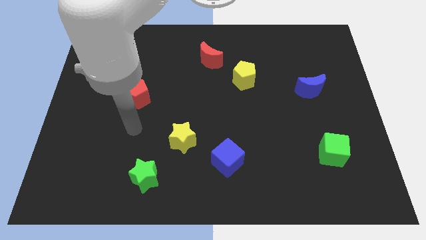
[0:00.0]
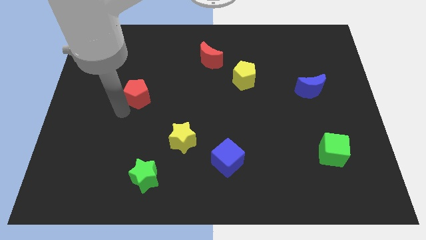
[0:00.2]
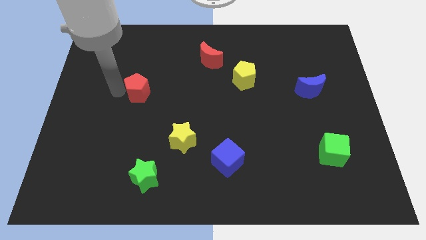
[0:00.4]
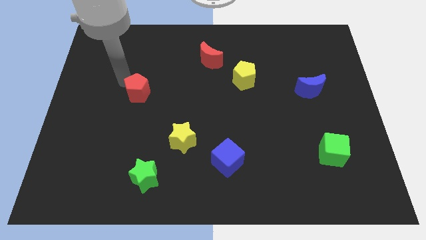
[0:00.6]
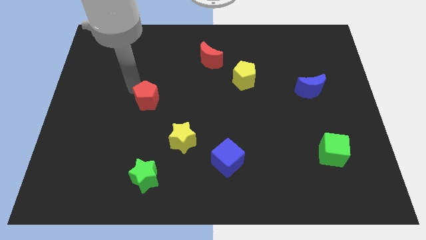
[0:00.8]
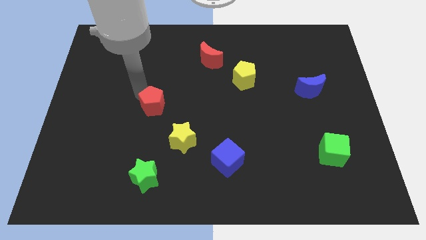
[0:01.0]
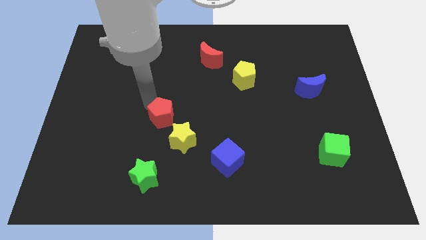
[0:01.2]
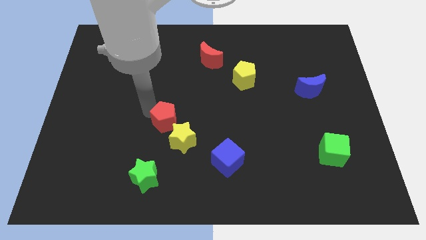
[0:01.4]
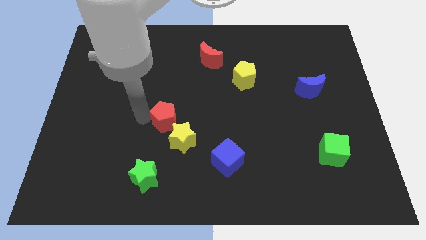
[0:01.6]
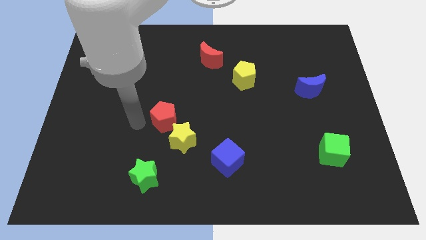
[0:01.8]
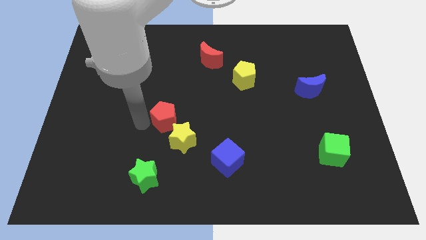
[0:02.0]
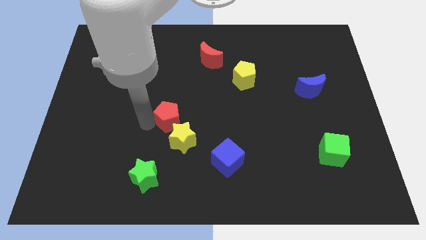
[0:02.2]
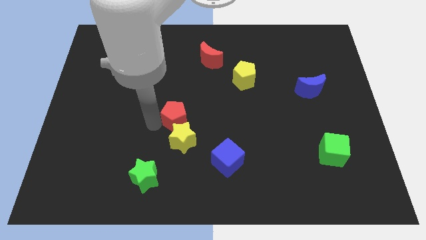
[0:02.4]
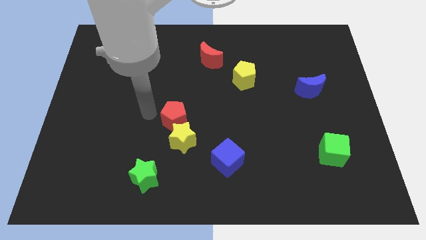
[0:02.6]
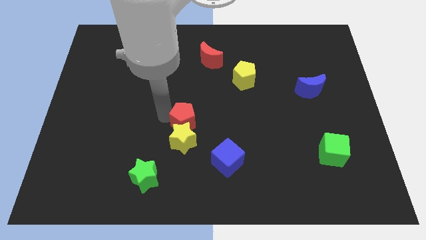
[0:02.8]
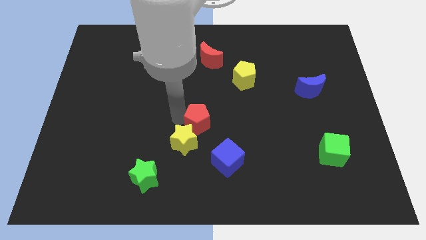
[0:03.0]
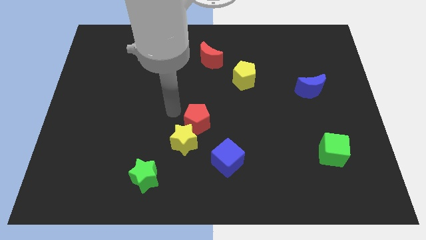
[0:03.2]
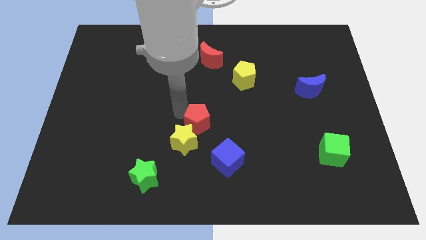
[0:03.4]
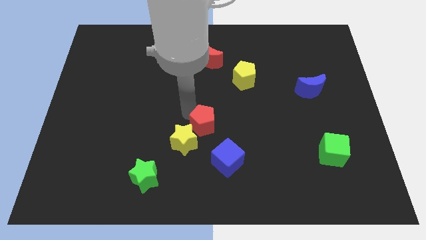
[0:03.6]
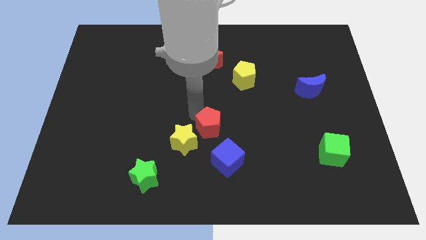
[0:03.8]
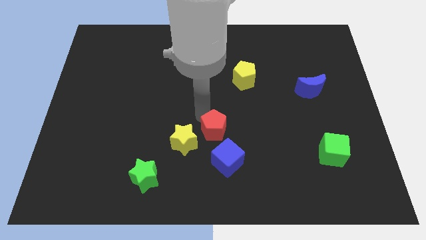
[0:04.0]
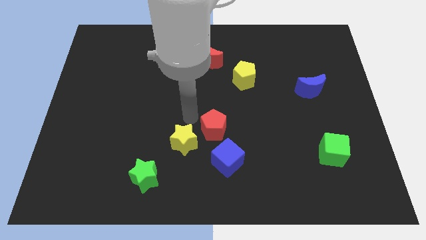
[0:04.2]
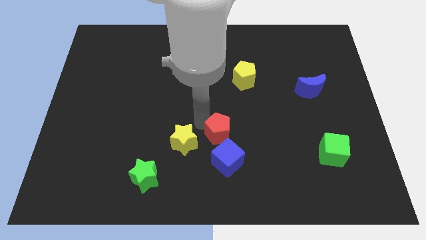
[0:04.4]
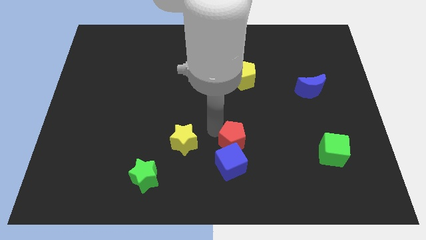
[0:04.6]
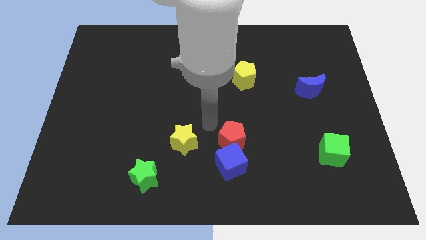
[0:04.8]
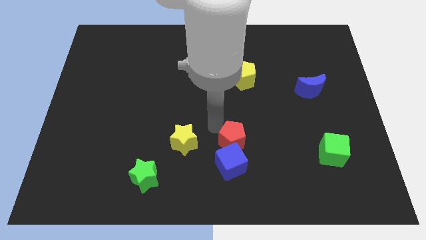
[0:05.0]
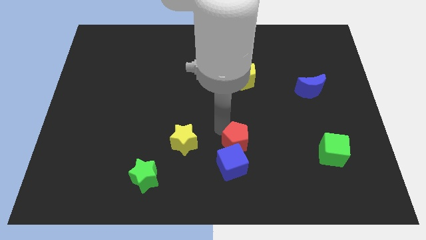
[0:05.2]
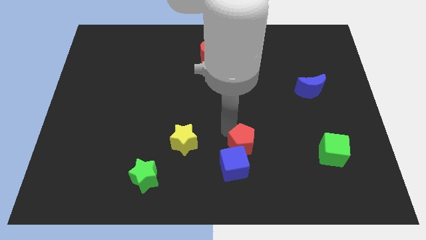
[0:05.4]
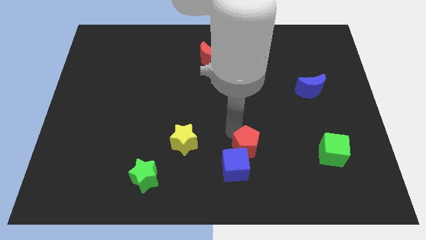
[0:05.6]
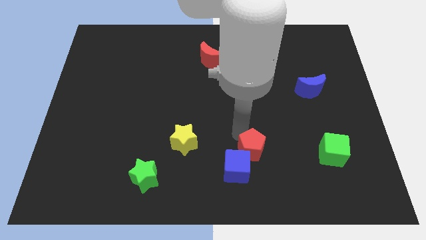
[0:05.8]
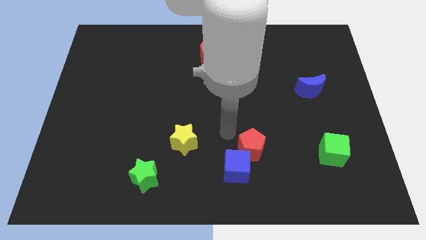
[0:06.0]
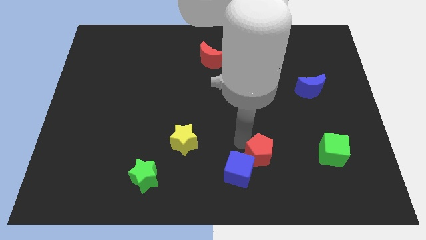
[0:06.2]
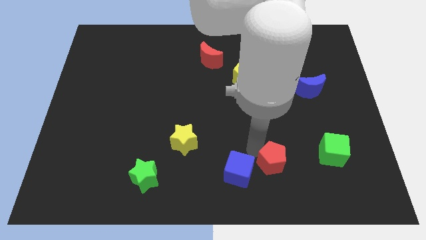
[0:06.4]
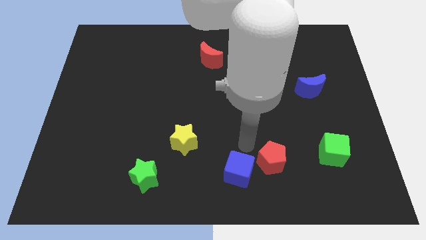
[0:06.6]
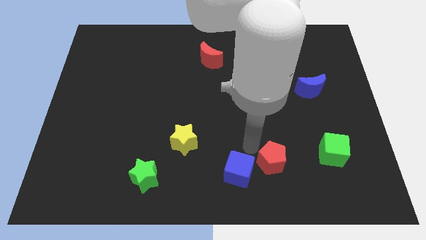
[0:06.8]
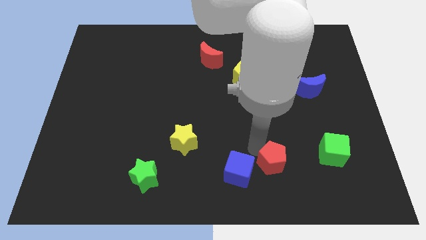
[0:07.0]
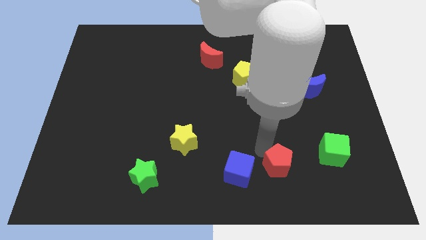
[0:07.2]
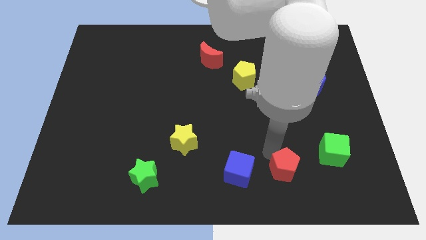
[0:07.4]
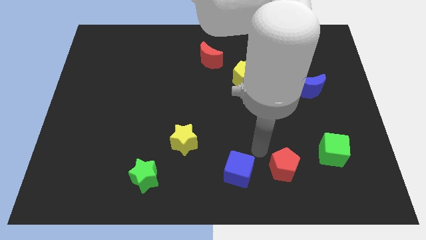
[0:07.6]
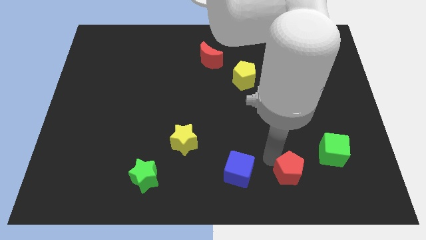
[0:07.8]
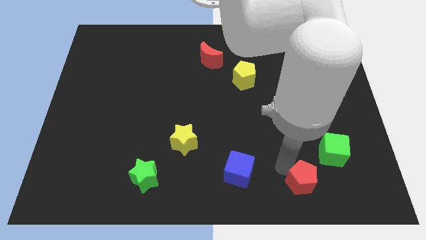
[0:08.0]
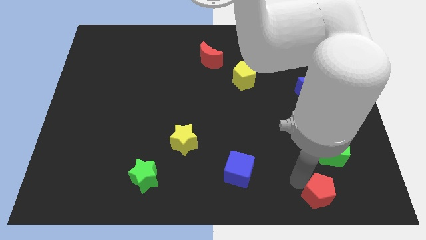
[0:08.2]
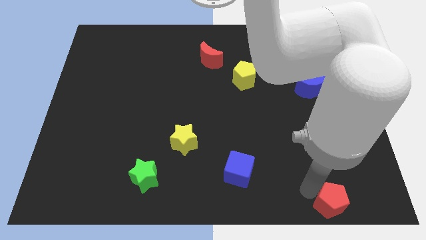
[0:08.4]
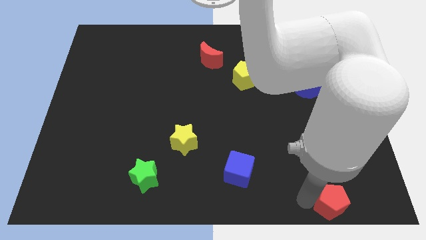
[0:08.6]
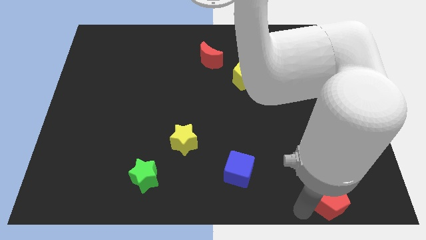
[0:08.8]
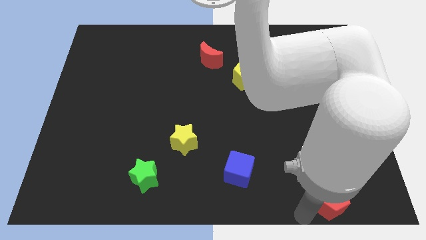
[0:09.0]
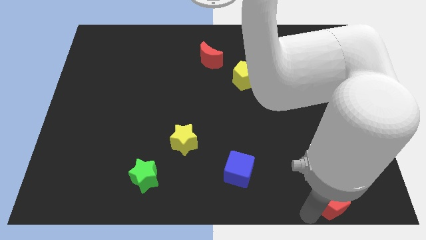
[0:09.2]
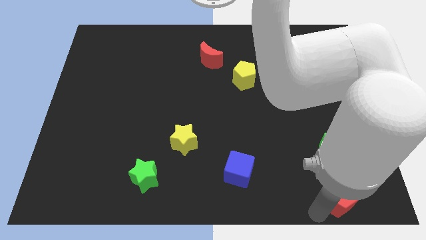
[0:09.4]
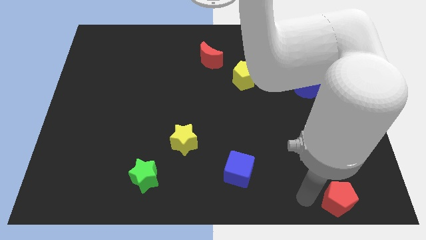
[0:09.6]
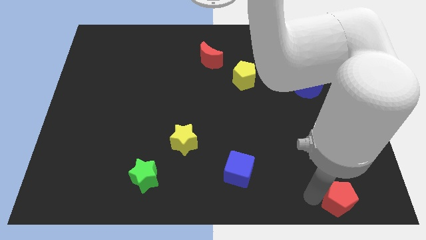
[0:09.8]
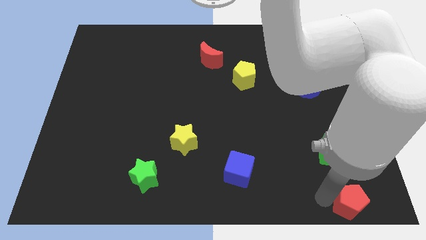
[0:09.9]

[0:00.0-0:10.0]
move the red pentagon to the lower right corner

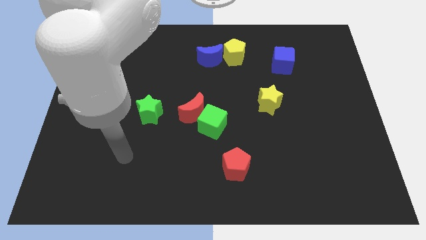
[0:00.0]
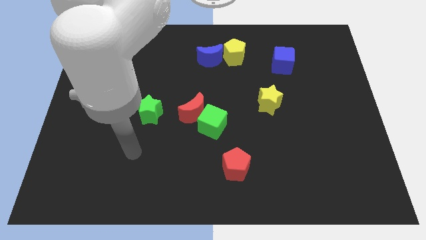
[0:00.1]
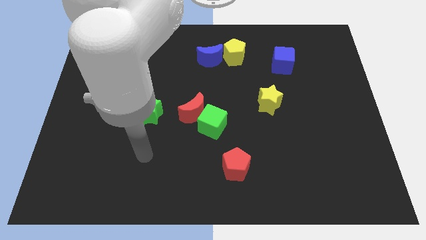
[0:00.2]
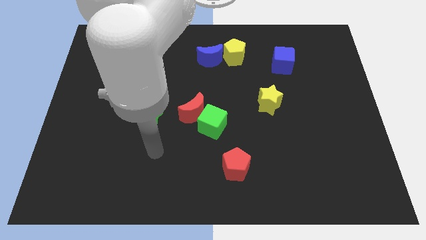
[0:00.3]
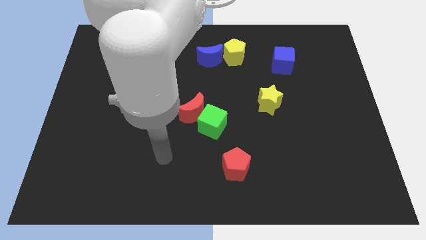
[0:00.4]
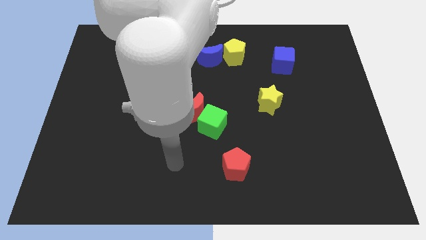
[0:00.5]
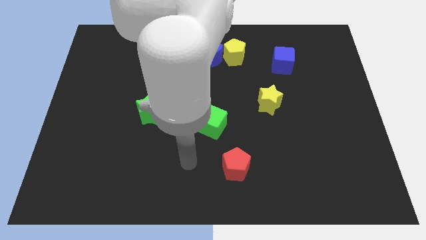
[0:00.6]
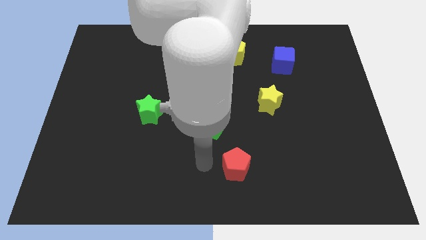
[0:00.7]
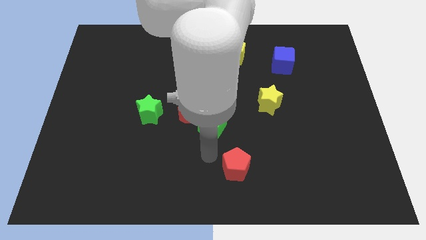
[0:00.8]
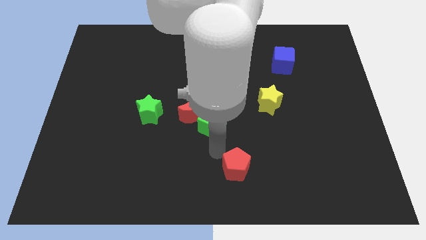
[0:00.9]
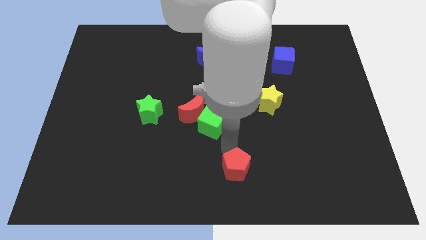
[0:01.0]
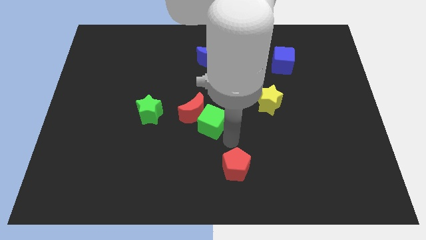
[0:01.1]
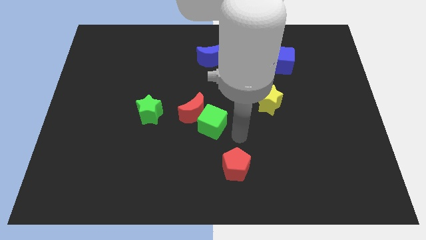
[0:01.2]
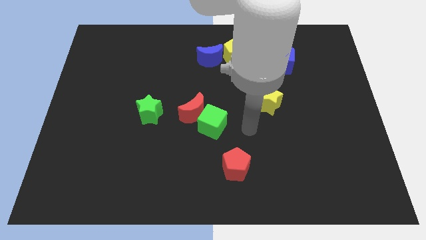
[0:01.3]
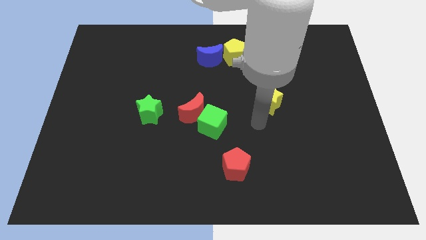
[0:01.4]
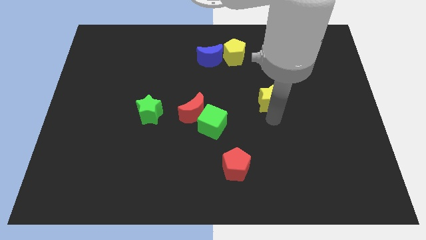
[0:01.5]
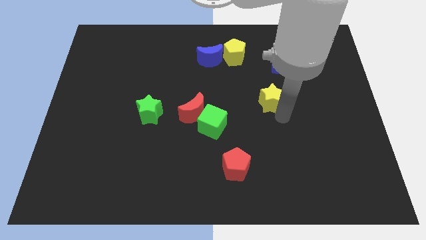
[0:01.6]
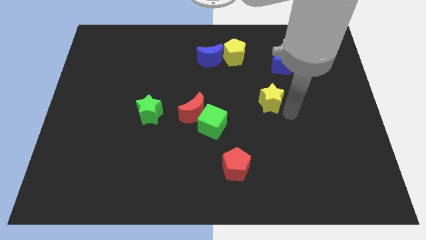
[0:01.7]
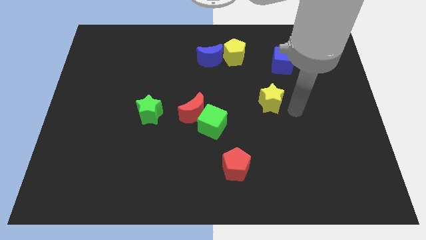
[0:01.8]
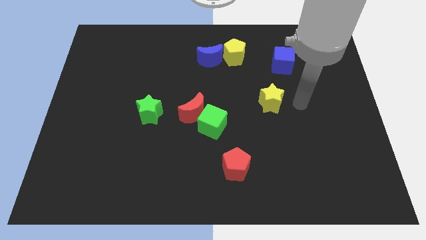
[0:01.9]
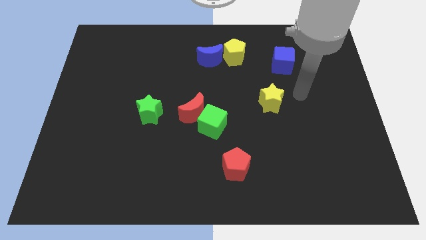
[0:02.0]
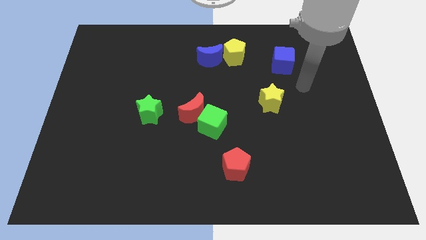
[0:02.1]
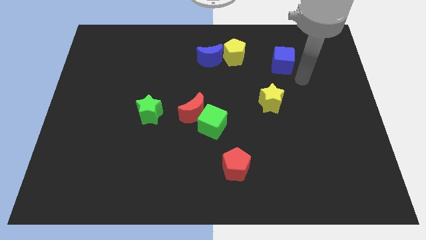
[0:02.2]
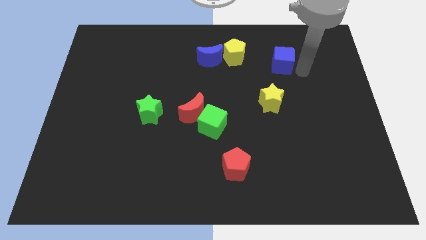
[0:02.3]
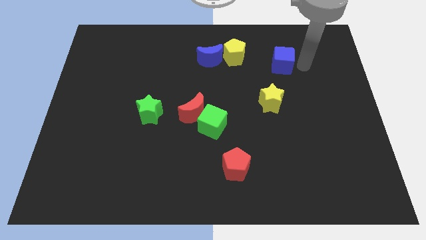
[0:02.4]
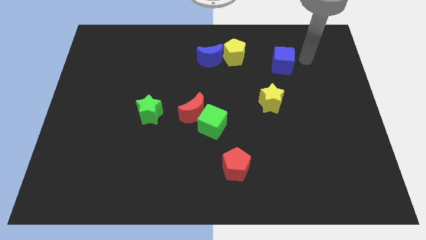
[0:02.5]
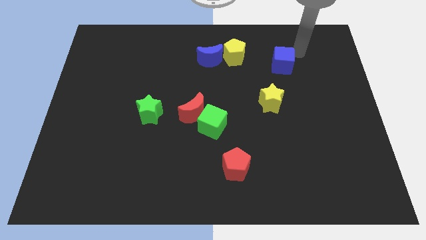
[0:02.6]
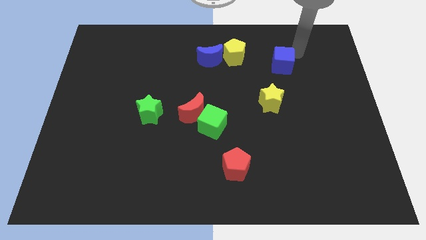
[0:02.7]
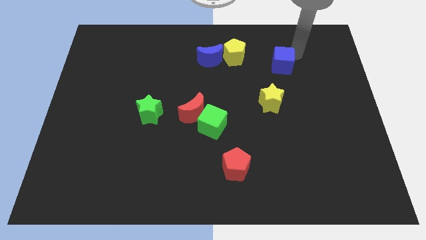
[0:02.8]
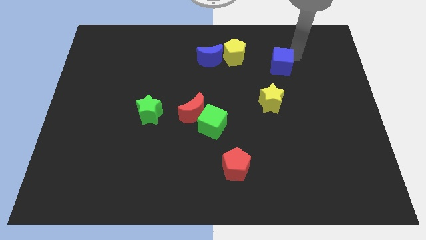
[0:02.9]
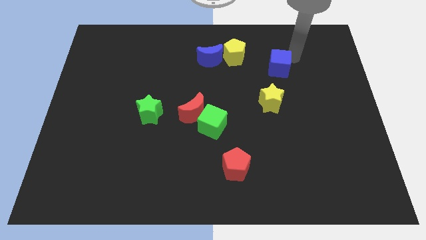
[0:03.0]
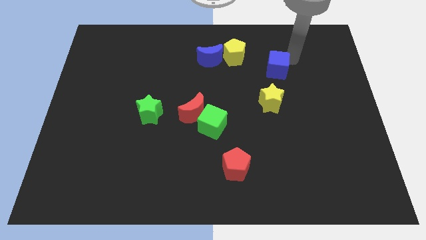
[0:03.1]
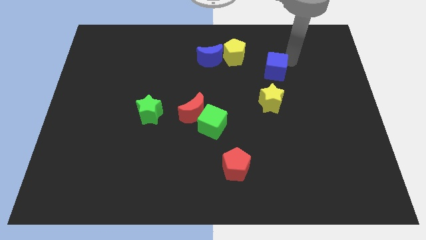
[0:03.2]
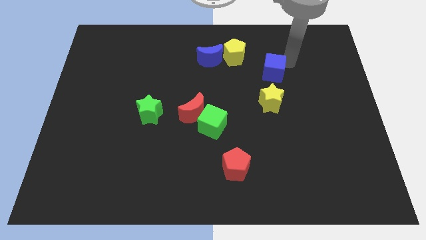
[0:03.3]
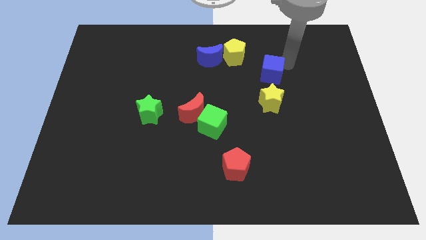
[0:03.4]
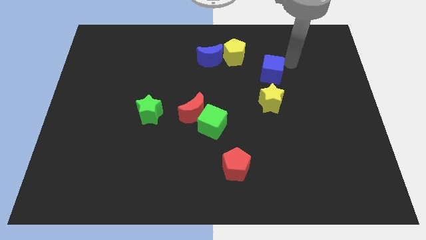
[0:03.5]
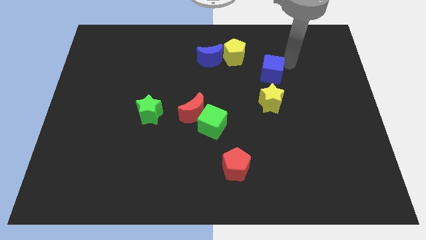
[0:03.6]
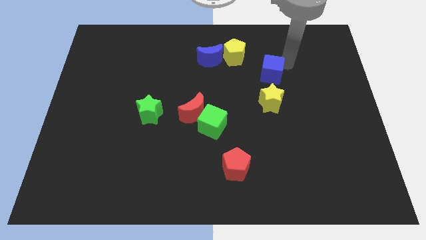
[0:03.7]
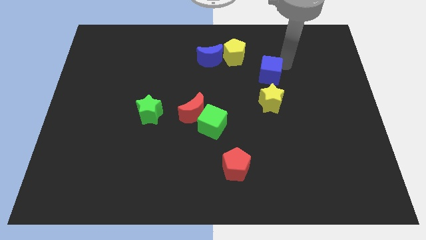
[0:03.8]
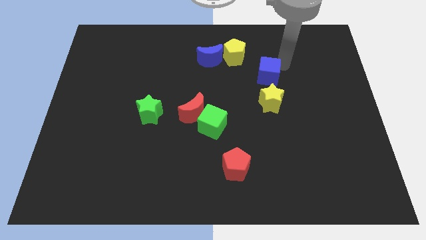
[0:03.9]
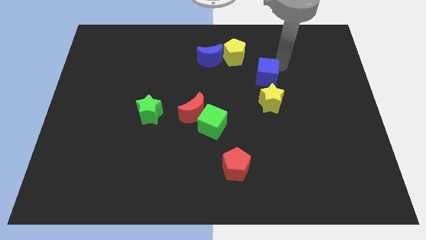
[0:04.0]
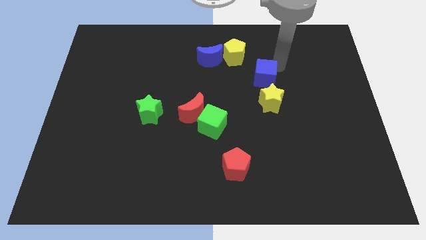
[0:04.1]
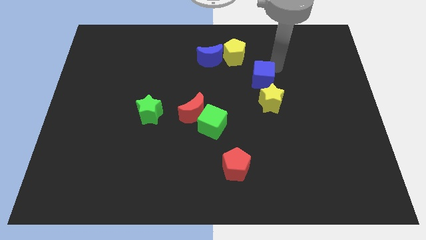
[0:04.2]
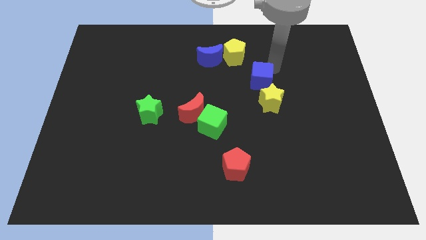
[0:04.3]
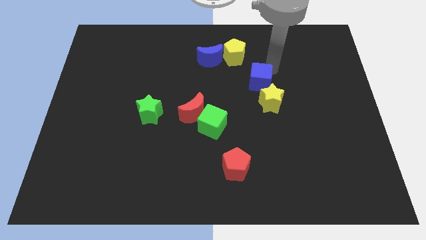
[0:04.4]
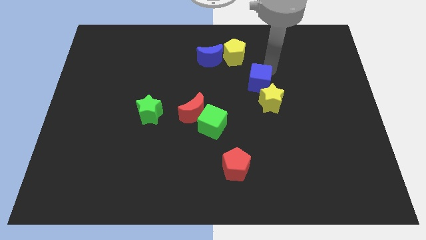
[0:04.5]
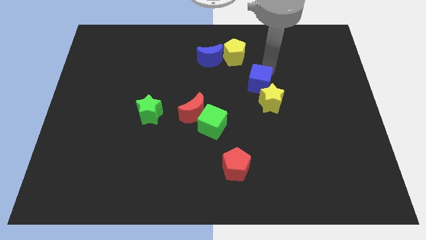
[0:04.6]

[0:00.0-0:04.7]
slide the blue cube to the middle
